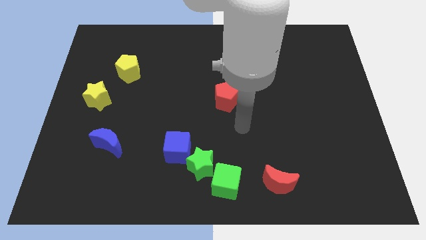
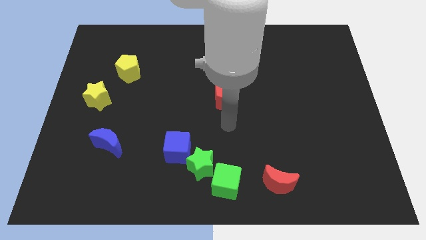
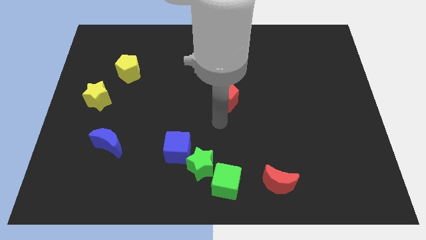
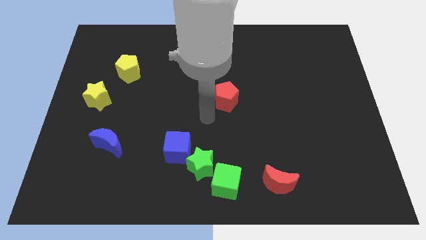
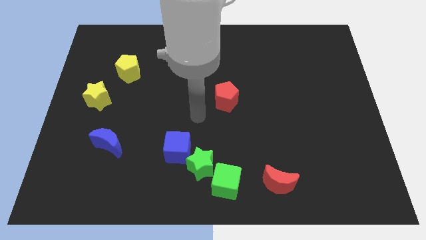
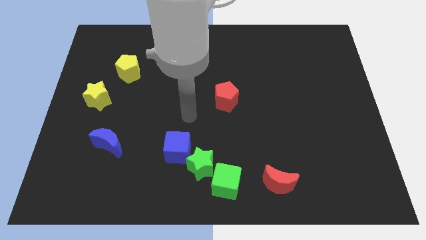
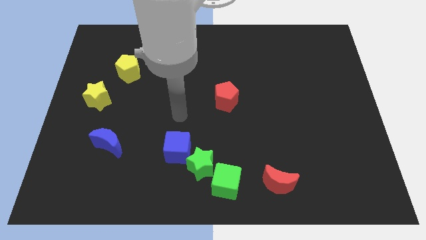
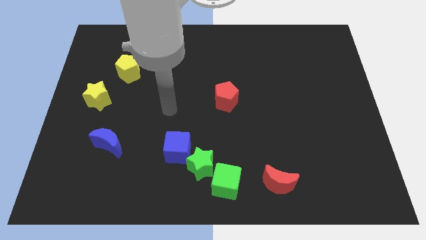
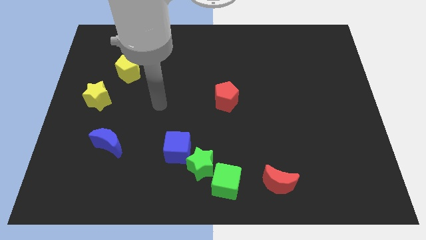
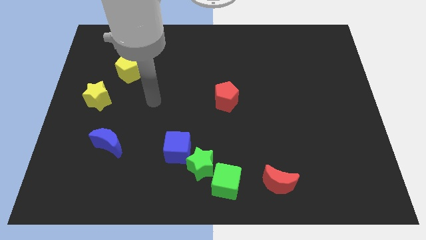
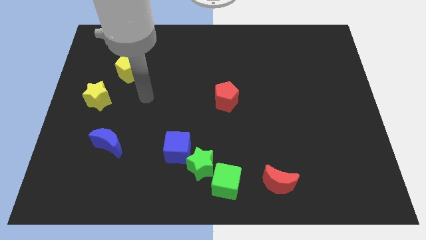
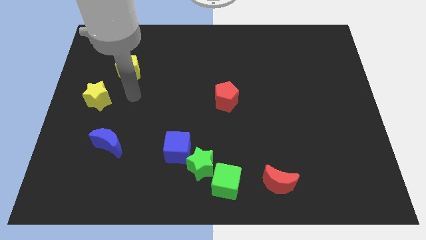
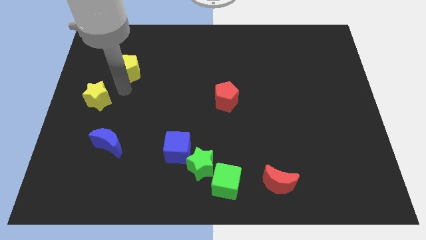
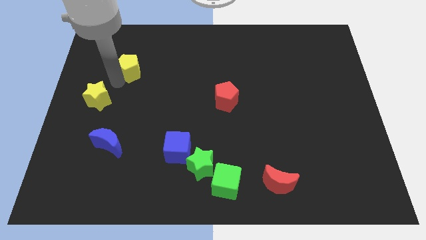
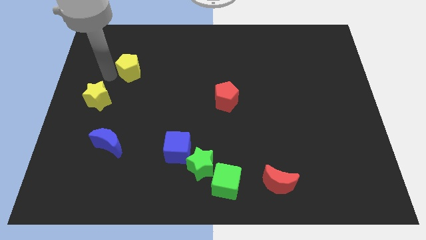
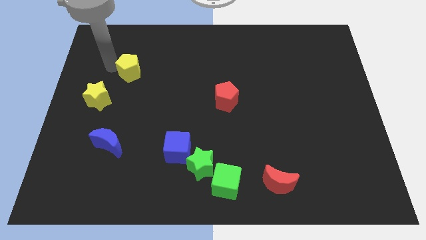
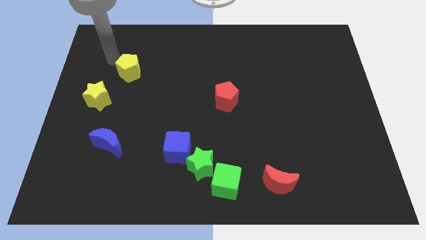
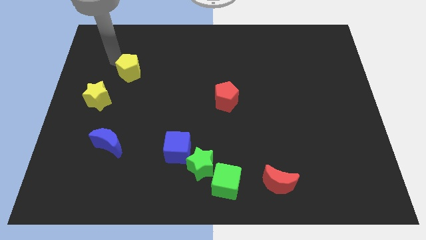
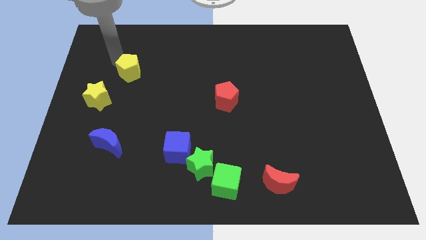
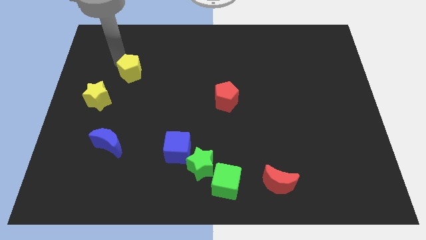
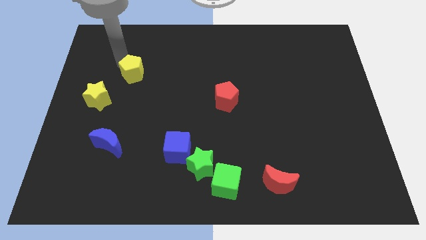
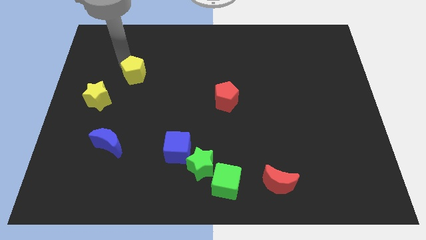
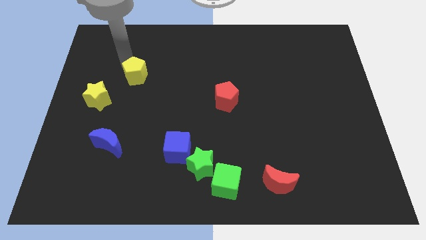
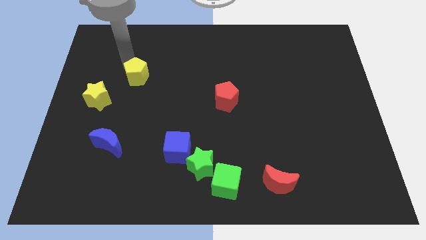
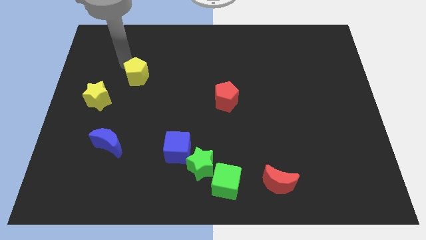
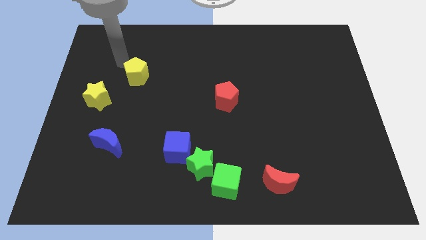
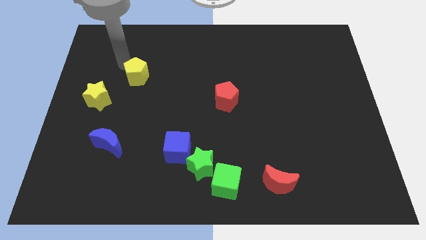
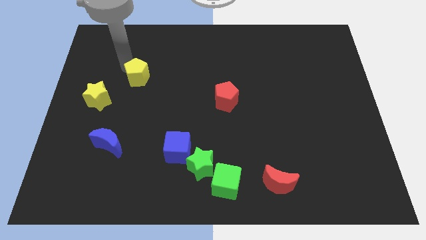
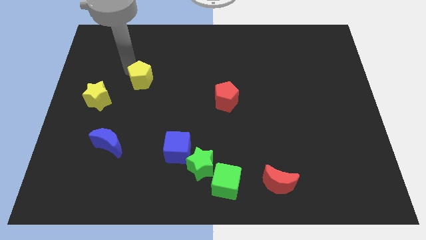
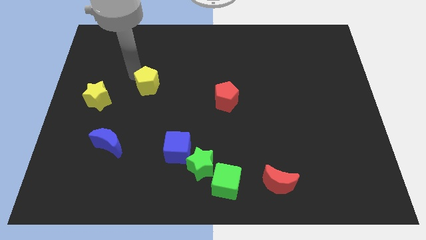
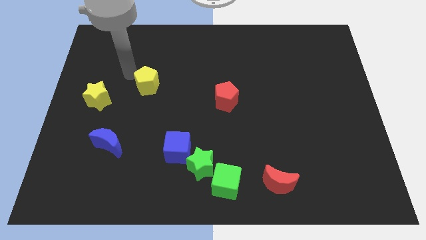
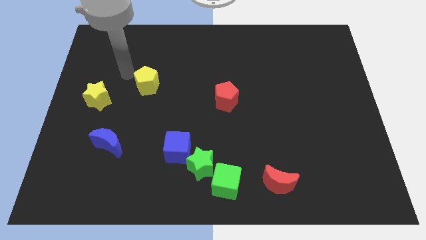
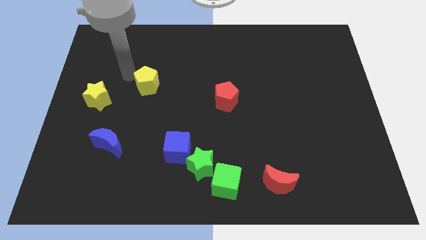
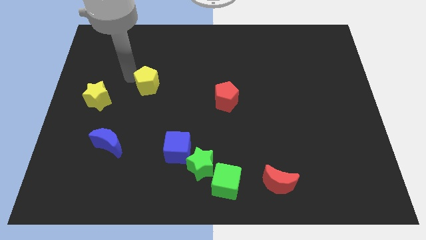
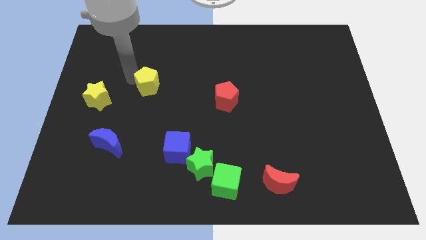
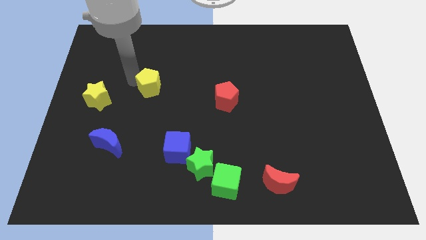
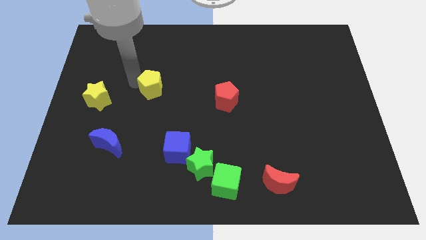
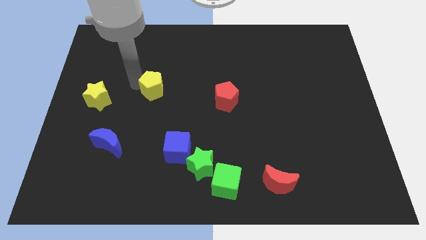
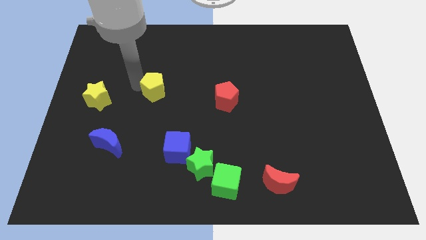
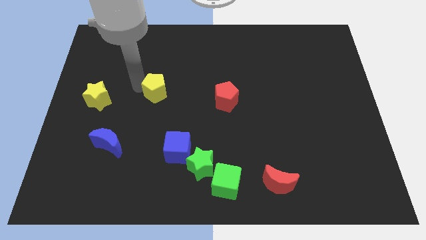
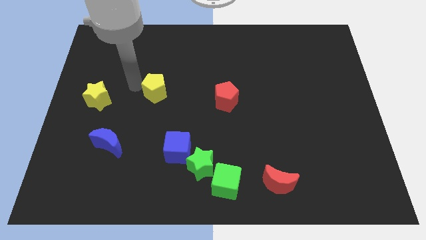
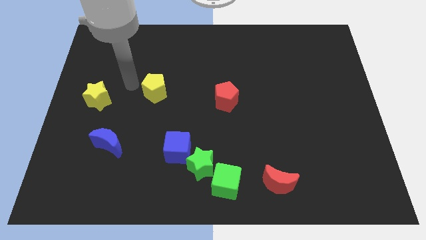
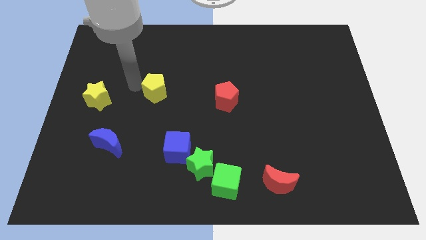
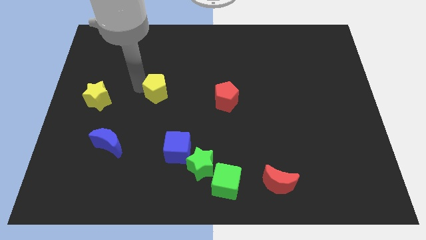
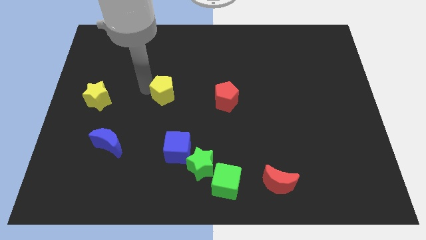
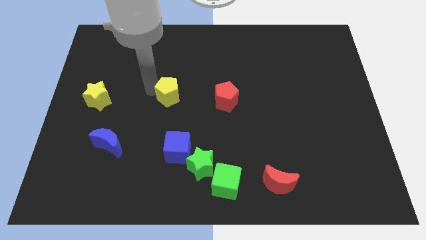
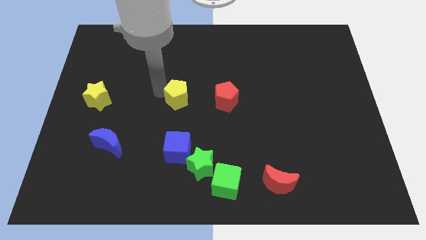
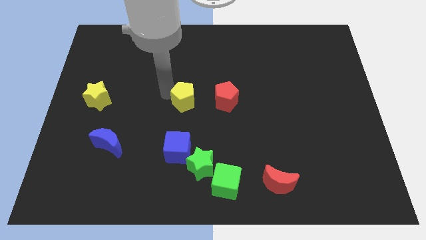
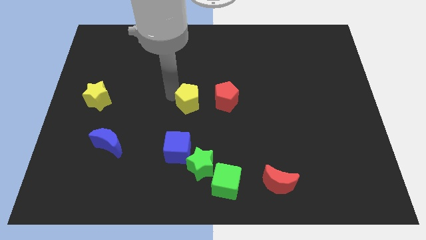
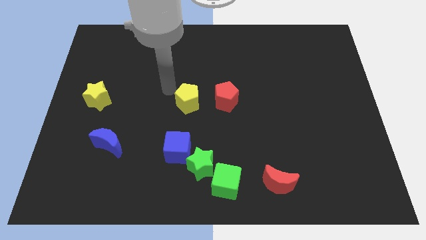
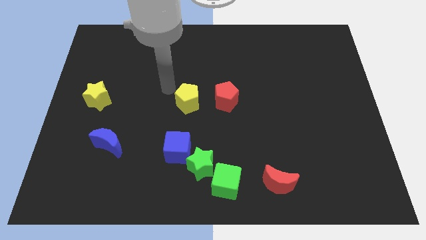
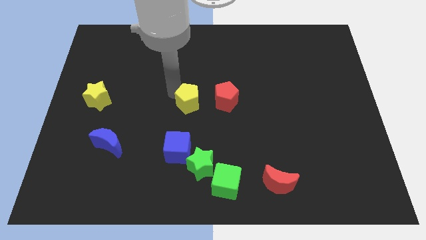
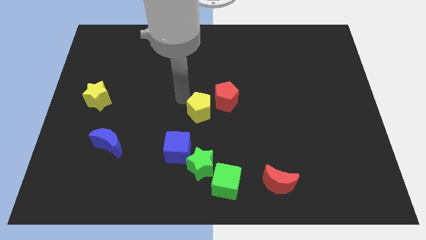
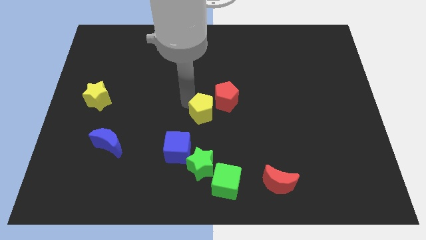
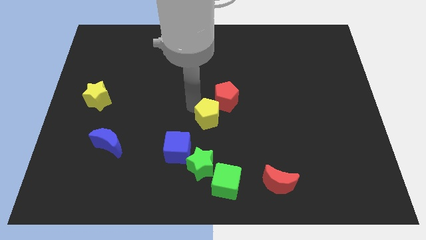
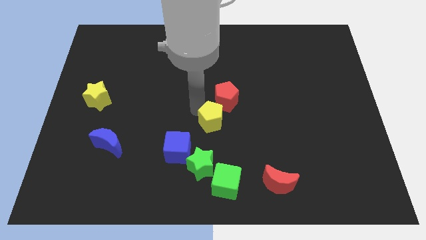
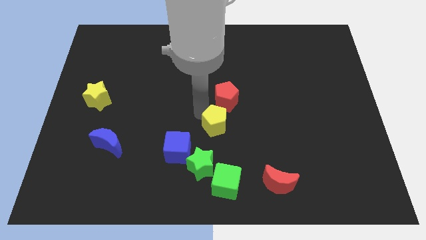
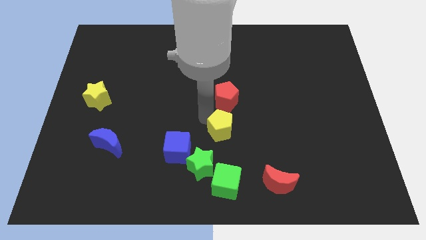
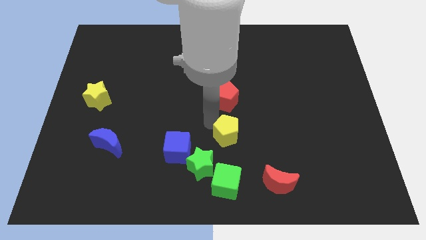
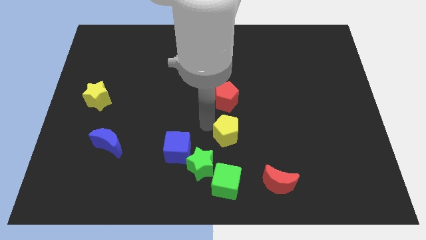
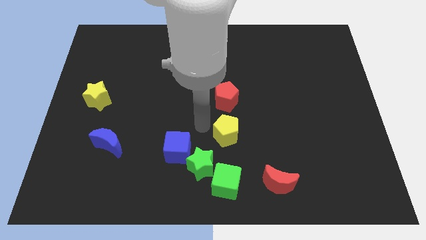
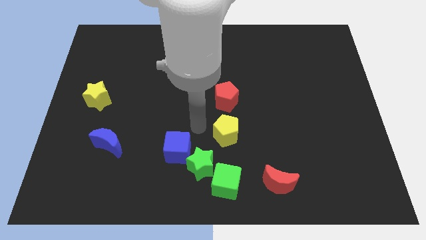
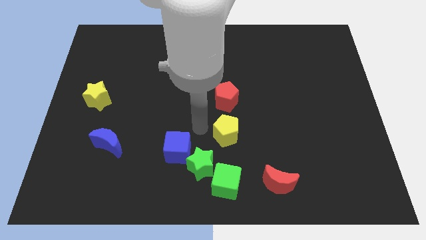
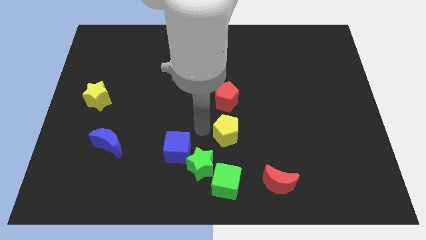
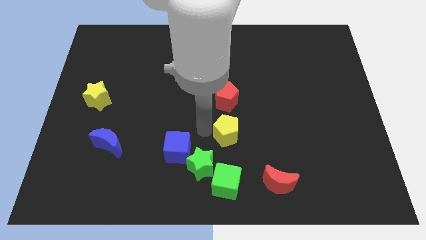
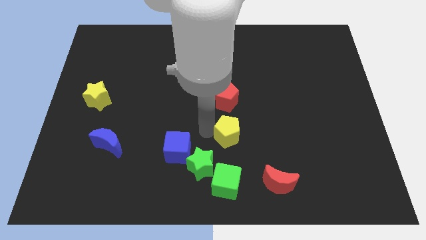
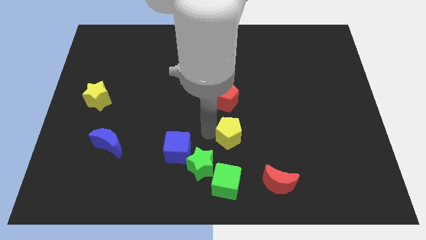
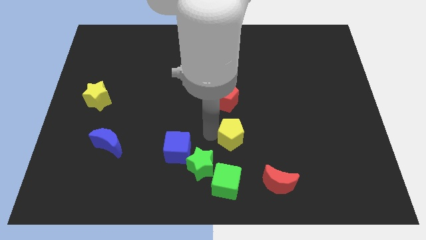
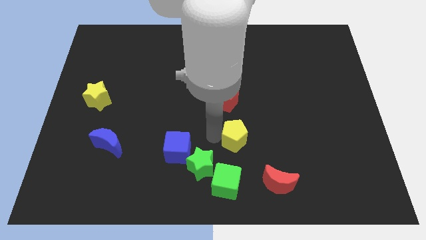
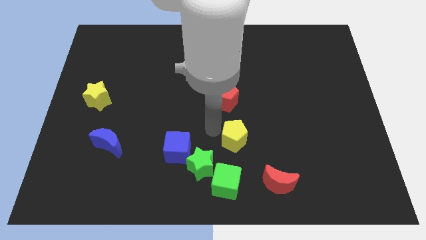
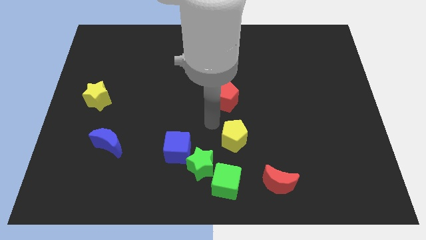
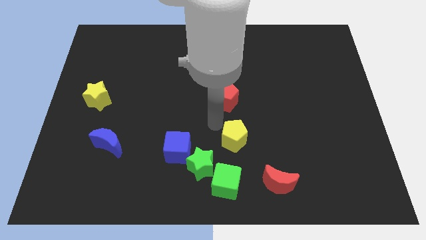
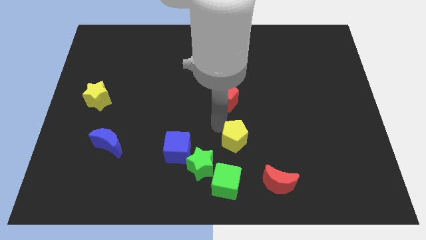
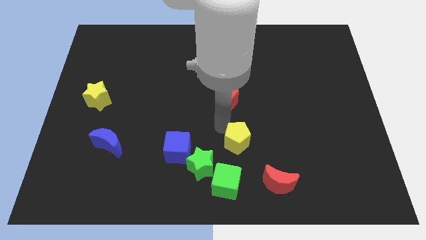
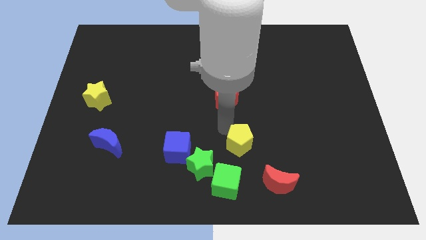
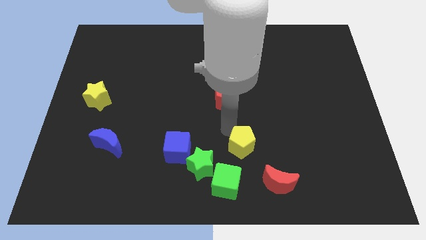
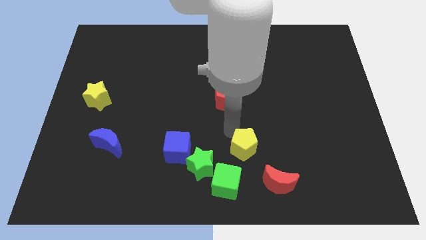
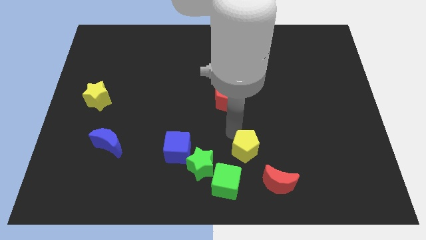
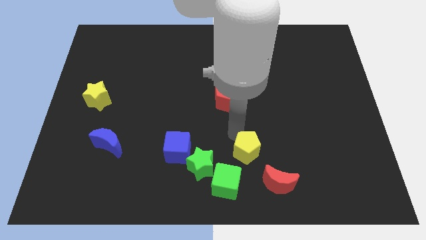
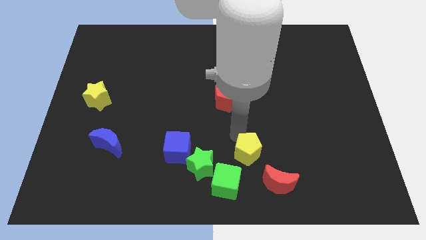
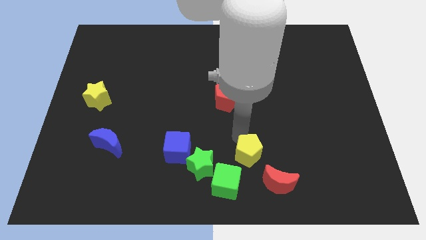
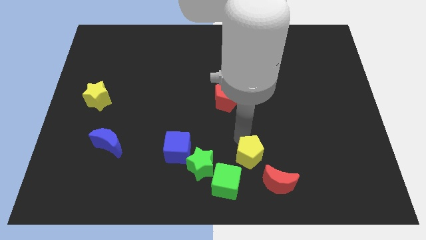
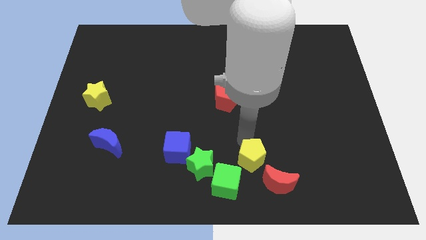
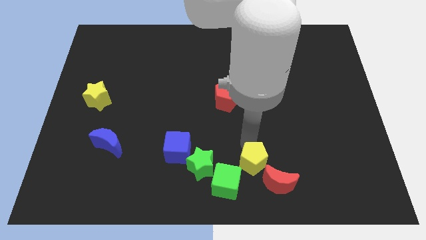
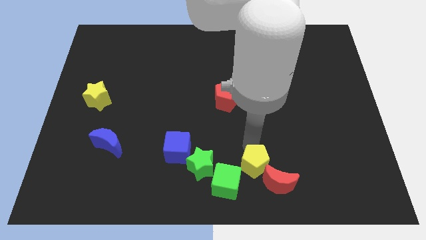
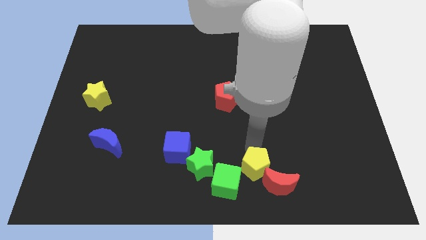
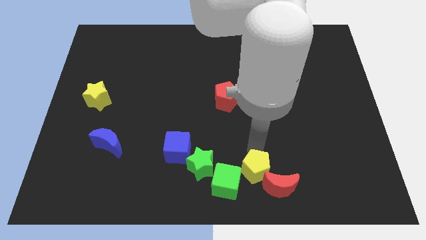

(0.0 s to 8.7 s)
move the yellow pentagon to the red moon
